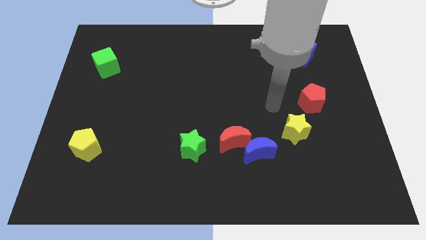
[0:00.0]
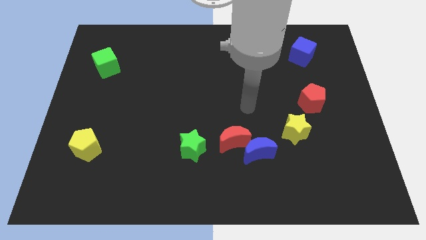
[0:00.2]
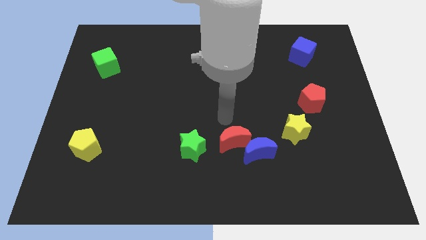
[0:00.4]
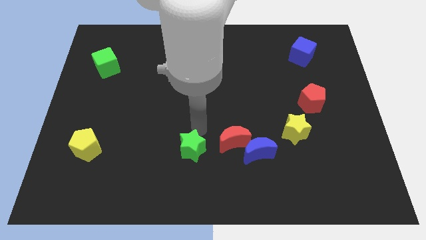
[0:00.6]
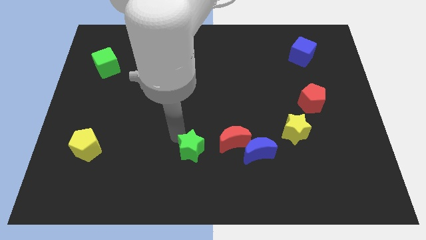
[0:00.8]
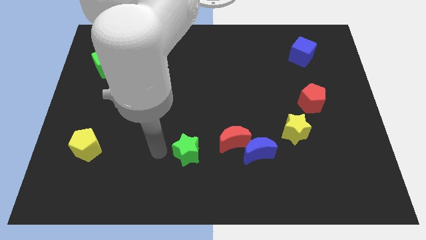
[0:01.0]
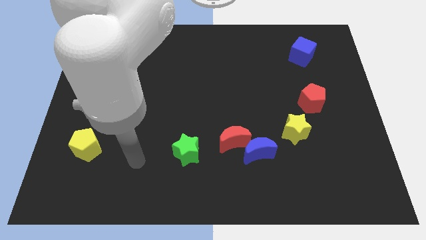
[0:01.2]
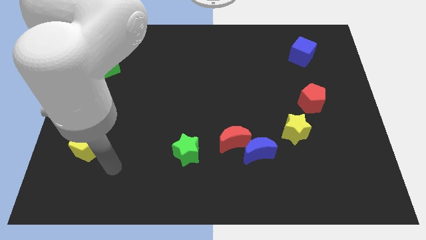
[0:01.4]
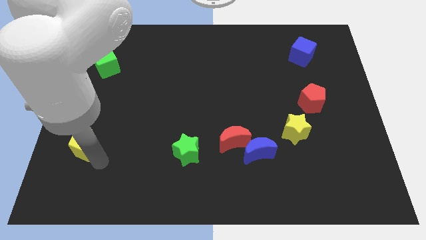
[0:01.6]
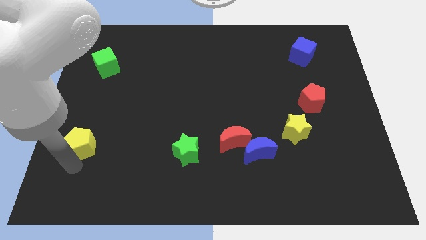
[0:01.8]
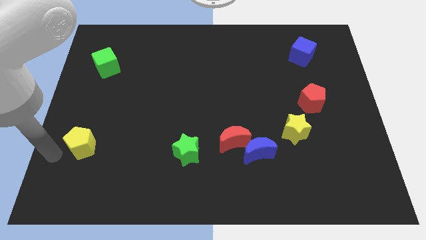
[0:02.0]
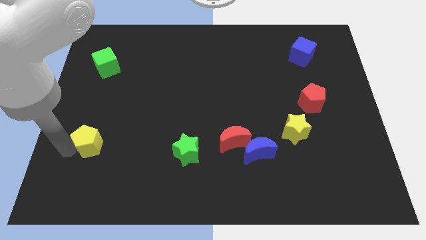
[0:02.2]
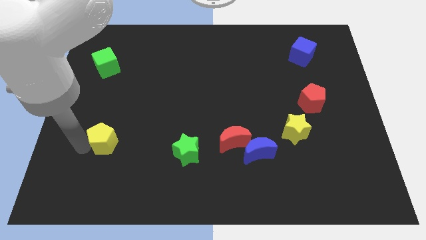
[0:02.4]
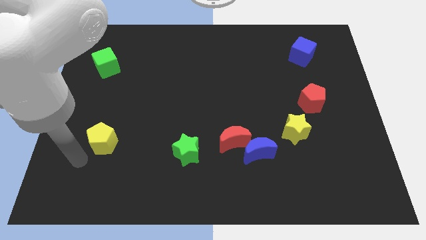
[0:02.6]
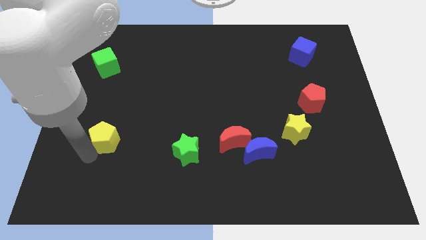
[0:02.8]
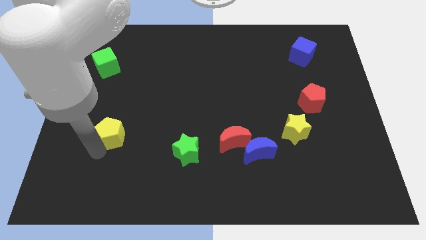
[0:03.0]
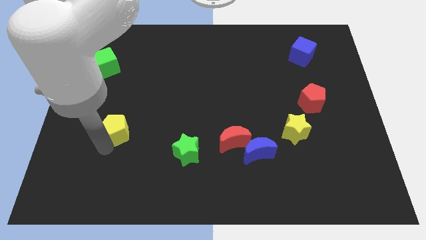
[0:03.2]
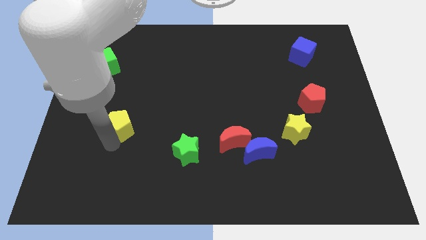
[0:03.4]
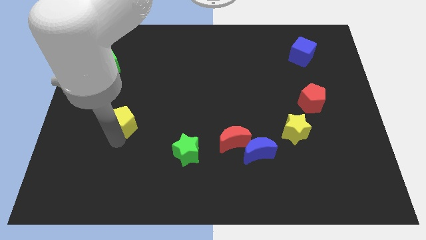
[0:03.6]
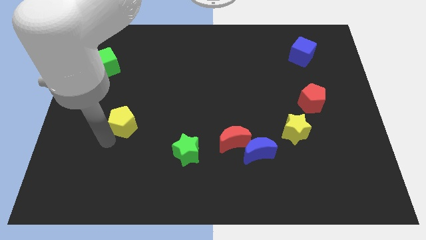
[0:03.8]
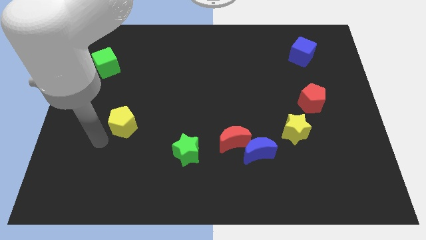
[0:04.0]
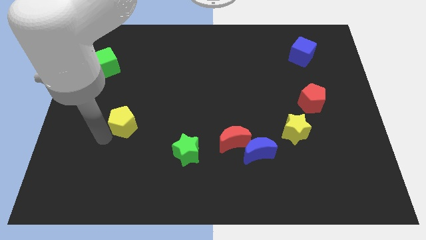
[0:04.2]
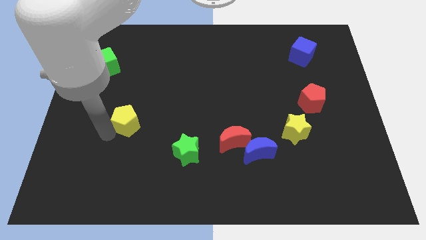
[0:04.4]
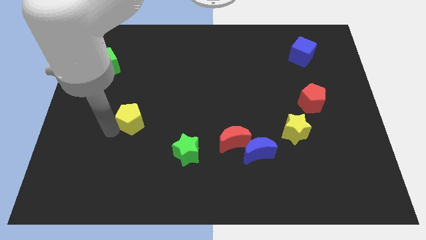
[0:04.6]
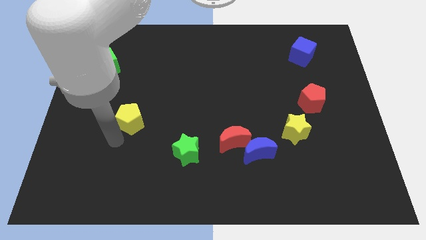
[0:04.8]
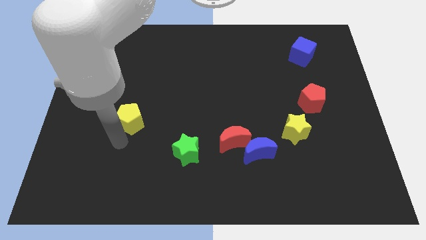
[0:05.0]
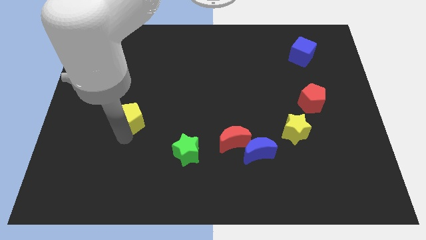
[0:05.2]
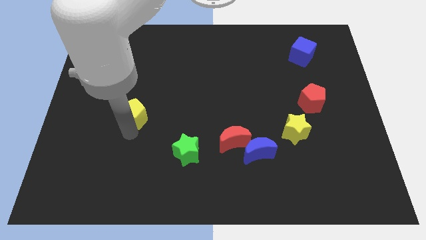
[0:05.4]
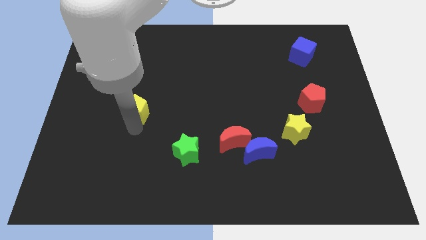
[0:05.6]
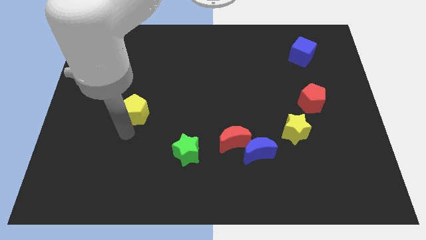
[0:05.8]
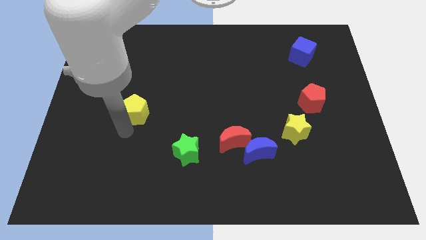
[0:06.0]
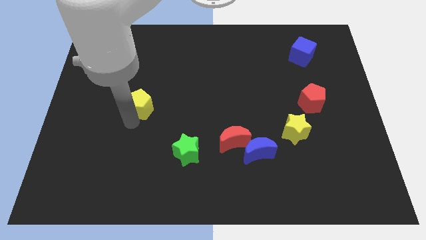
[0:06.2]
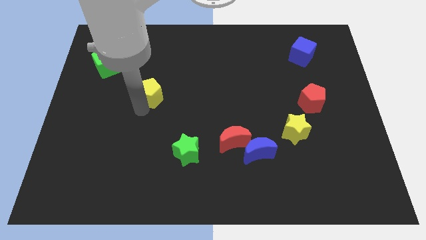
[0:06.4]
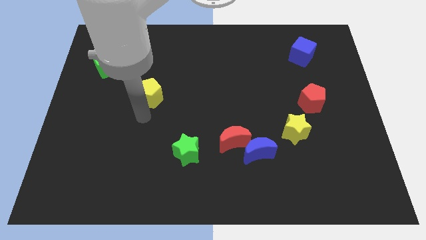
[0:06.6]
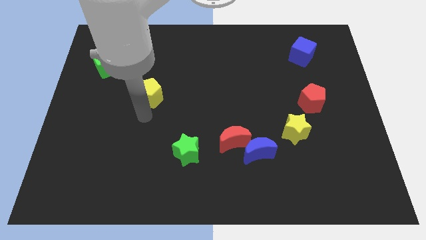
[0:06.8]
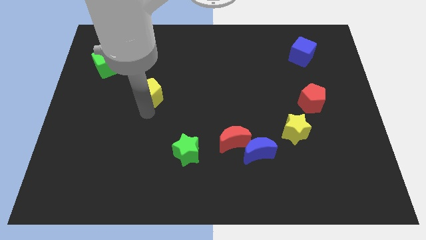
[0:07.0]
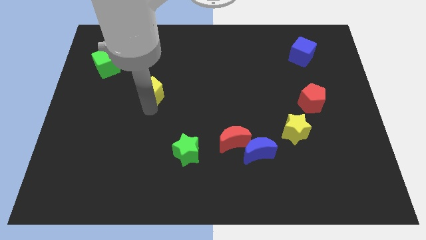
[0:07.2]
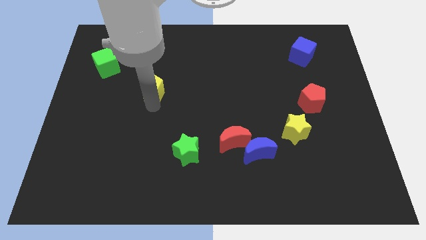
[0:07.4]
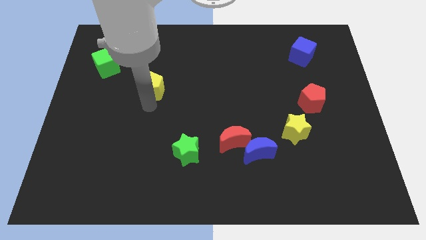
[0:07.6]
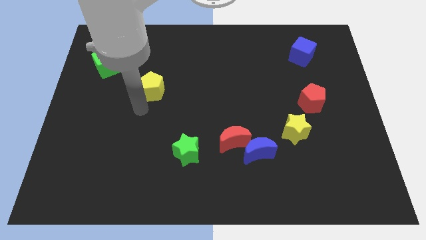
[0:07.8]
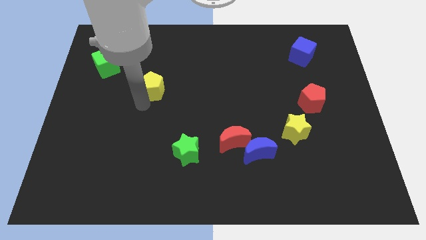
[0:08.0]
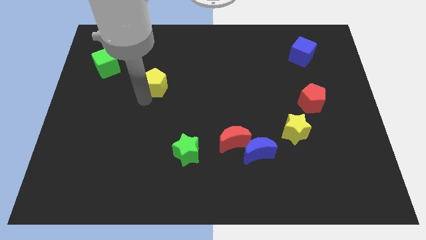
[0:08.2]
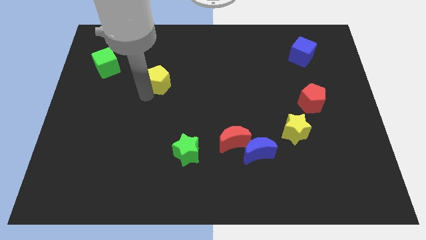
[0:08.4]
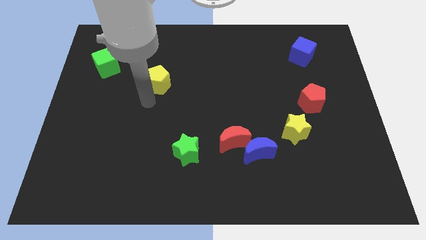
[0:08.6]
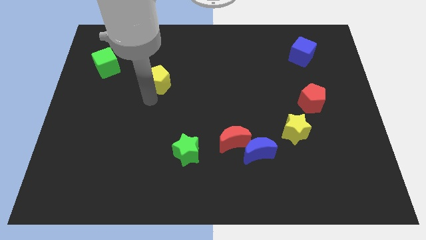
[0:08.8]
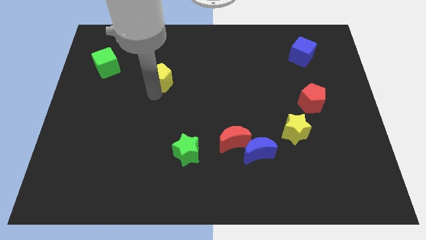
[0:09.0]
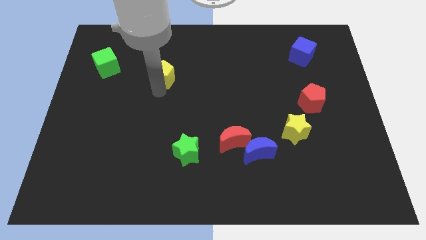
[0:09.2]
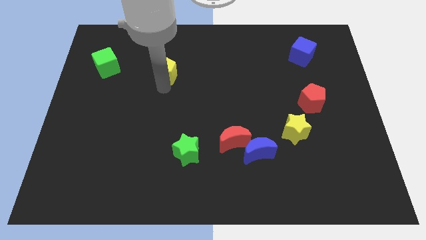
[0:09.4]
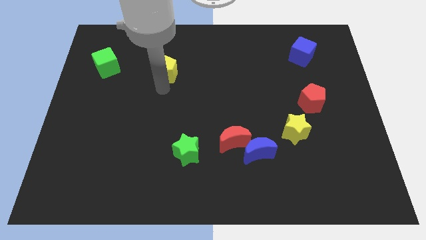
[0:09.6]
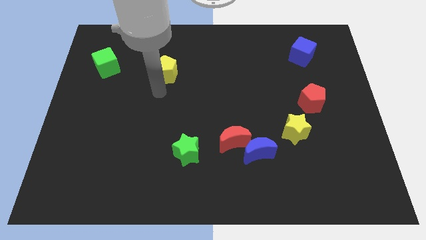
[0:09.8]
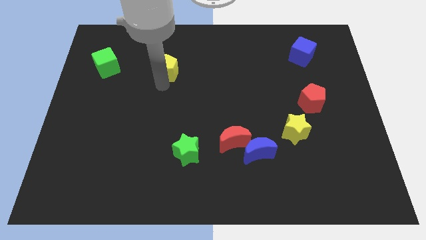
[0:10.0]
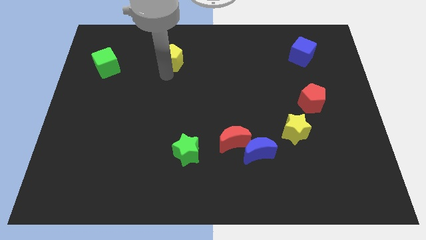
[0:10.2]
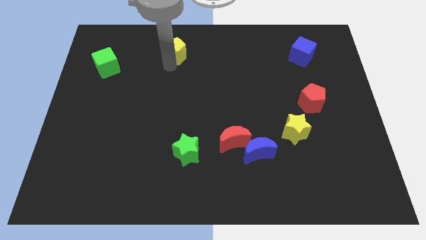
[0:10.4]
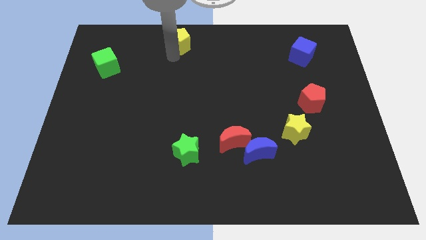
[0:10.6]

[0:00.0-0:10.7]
move the yellow pentagon to the towards your base

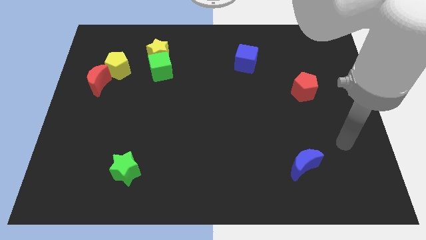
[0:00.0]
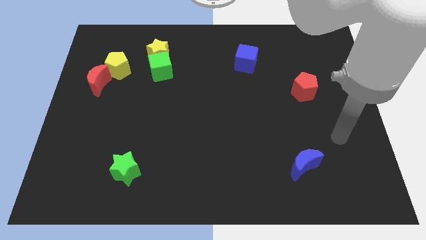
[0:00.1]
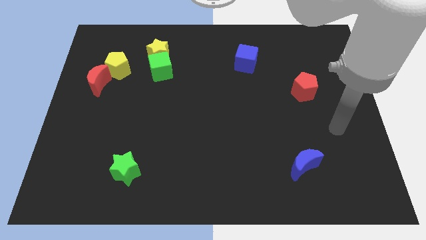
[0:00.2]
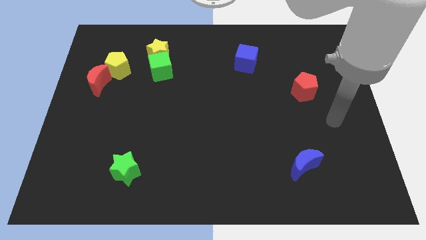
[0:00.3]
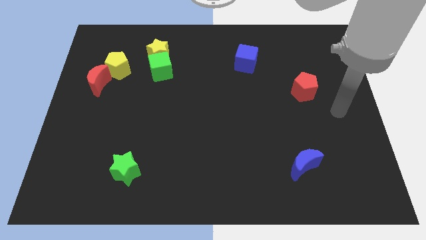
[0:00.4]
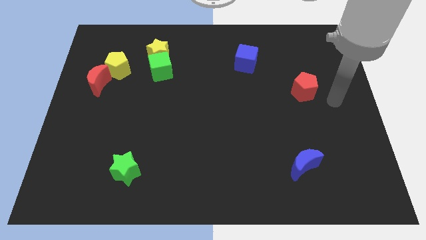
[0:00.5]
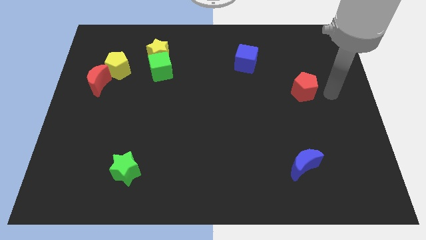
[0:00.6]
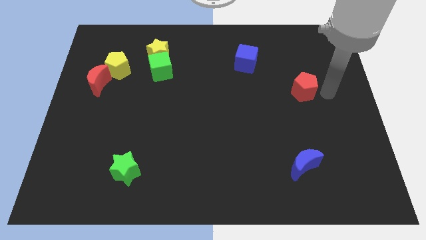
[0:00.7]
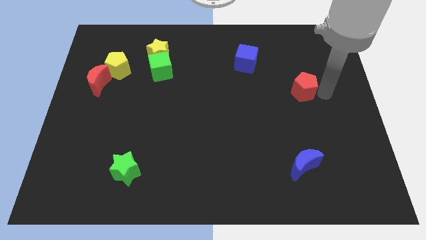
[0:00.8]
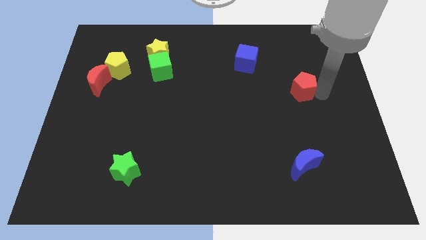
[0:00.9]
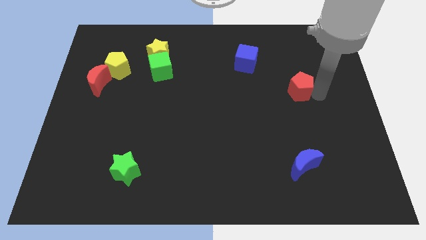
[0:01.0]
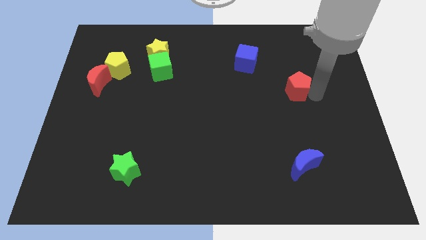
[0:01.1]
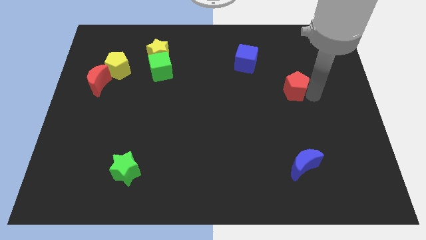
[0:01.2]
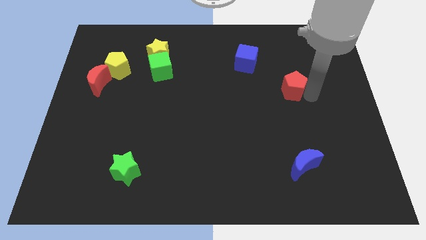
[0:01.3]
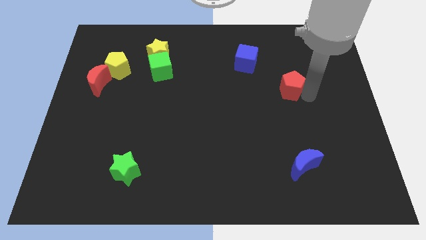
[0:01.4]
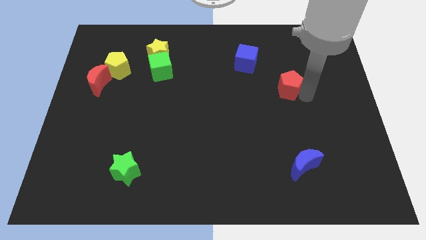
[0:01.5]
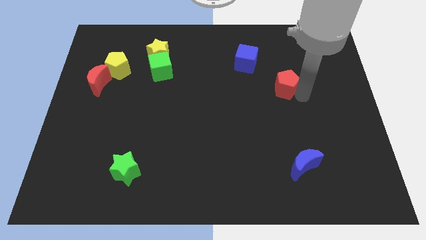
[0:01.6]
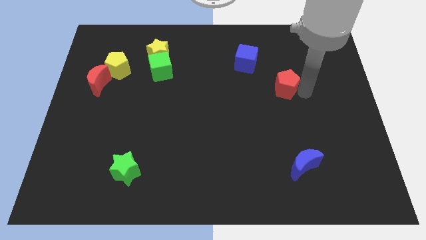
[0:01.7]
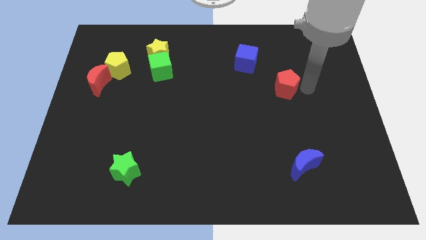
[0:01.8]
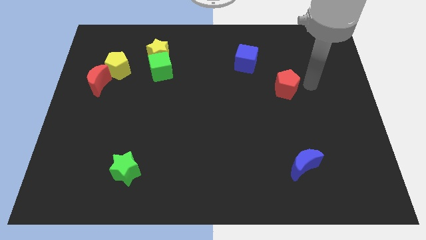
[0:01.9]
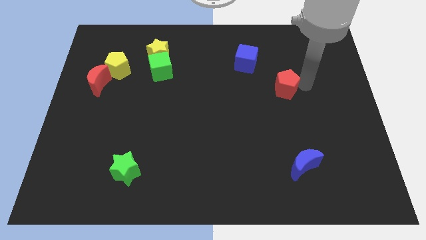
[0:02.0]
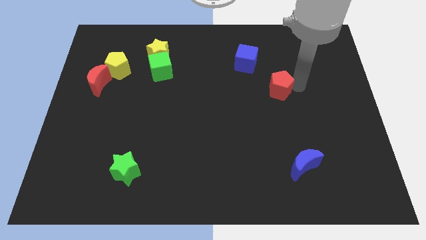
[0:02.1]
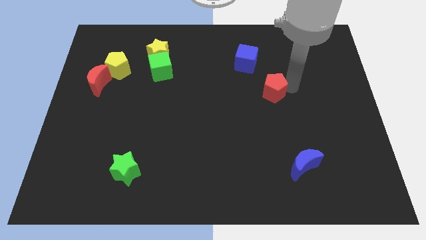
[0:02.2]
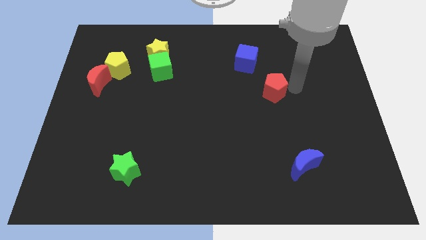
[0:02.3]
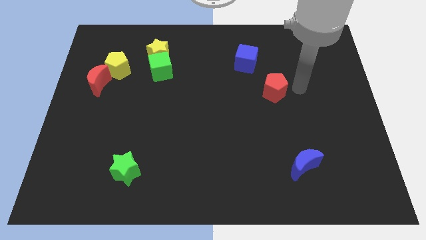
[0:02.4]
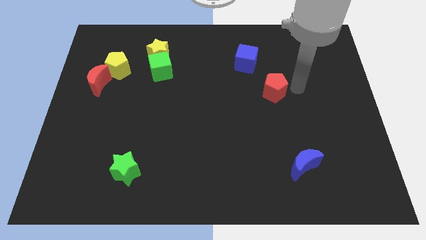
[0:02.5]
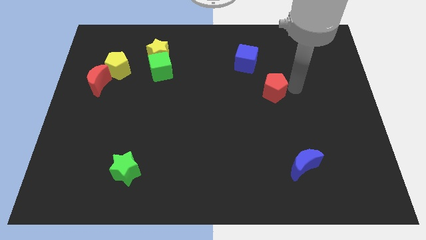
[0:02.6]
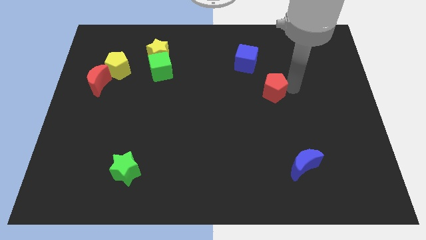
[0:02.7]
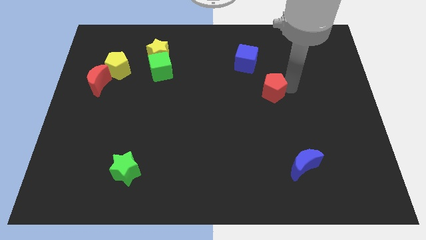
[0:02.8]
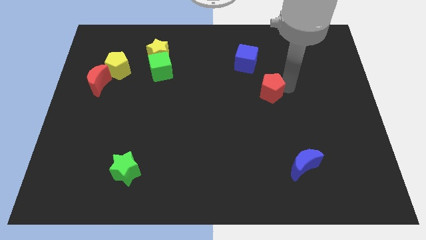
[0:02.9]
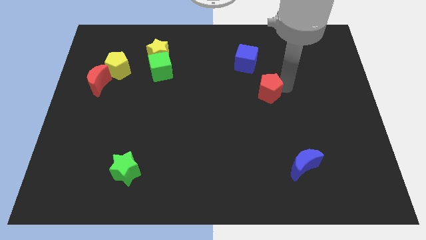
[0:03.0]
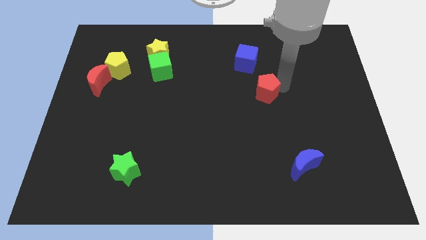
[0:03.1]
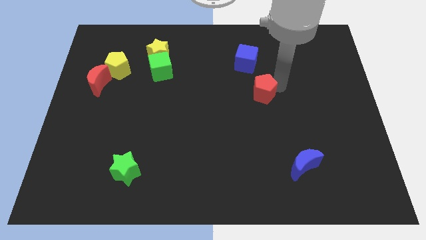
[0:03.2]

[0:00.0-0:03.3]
slide the red pentagon to the middle
